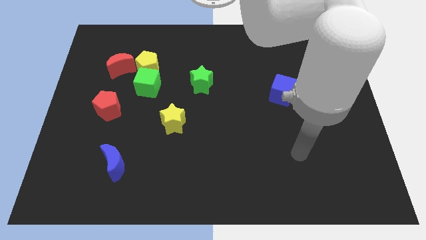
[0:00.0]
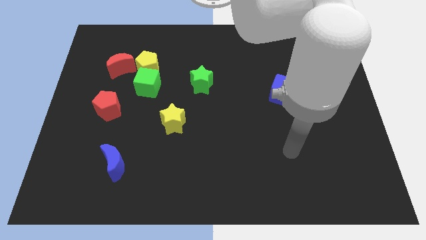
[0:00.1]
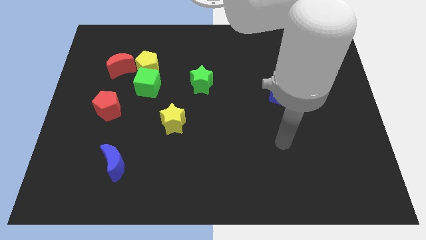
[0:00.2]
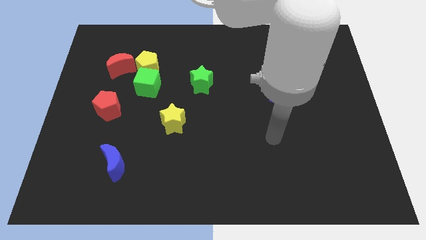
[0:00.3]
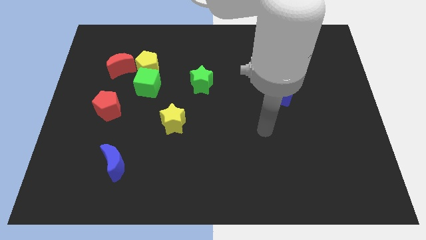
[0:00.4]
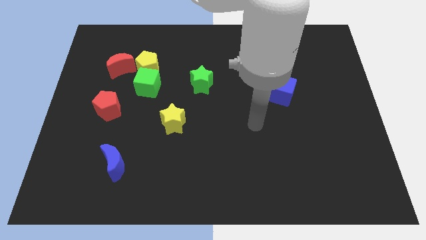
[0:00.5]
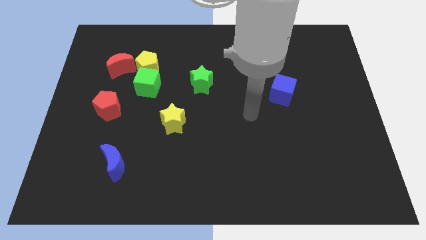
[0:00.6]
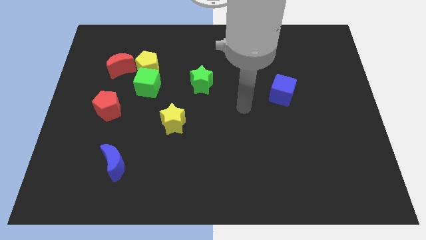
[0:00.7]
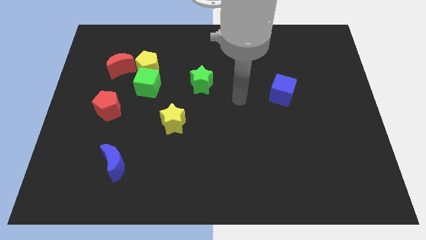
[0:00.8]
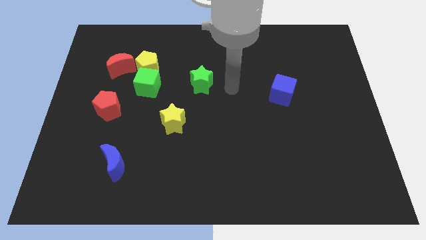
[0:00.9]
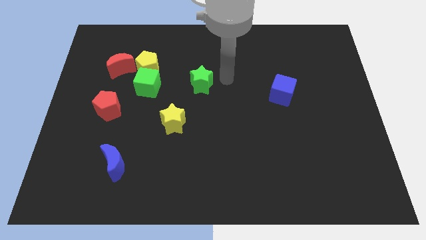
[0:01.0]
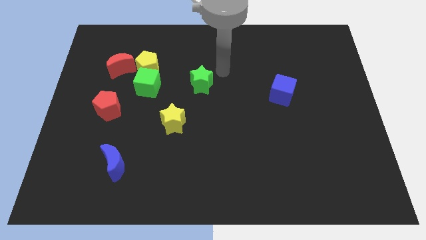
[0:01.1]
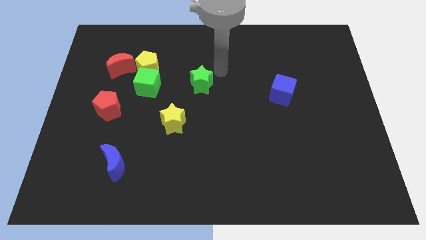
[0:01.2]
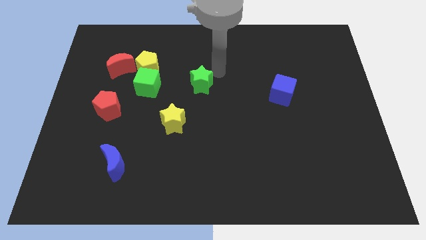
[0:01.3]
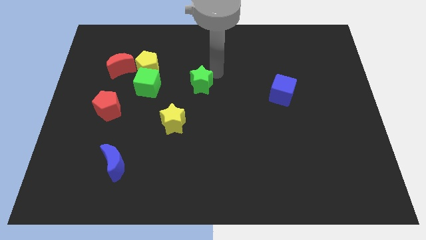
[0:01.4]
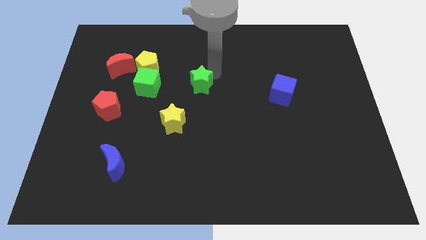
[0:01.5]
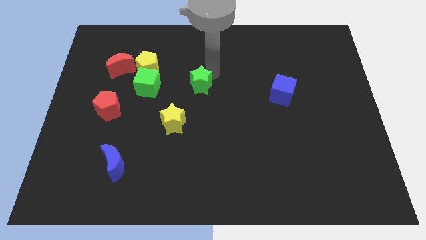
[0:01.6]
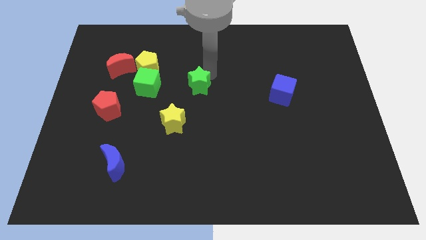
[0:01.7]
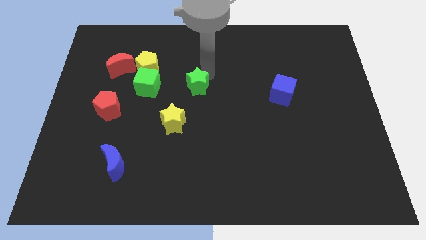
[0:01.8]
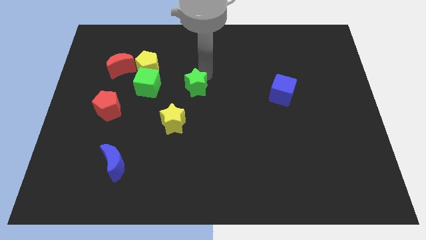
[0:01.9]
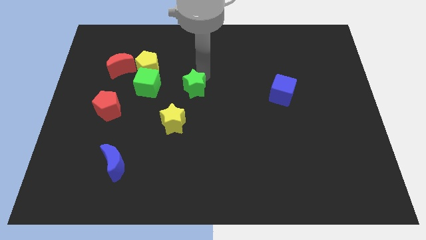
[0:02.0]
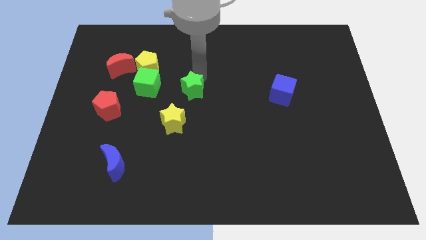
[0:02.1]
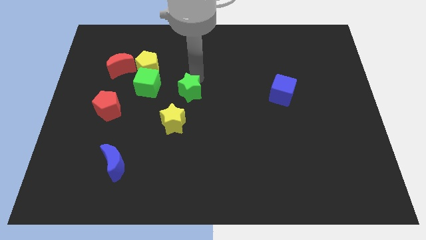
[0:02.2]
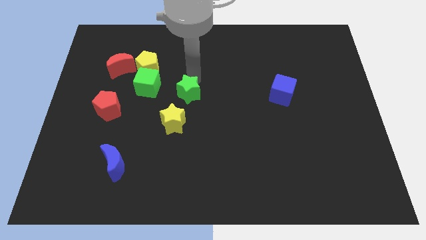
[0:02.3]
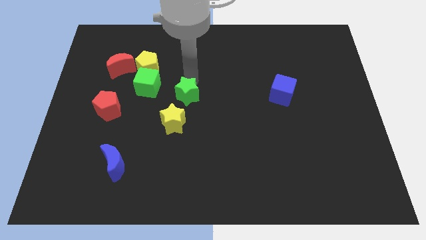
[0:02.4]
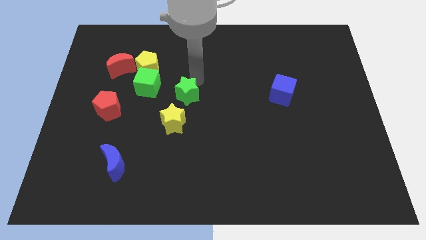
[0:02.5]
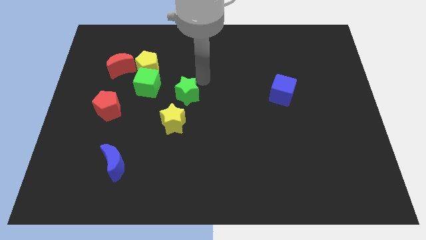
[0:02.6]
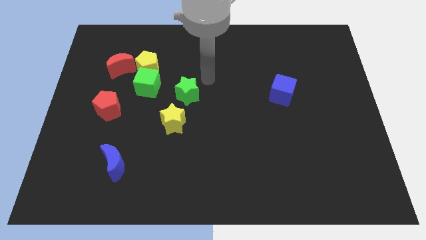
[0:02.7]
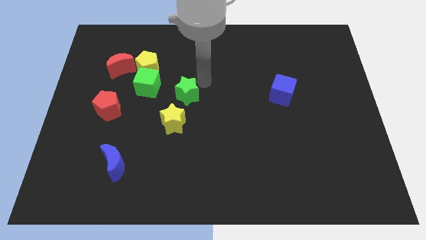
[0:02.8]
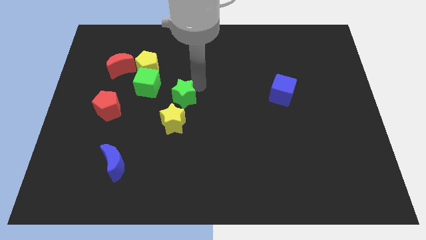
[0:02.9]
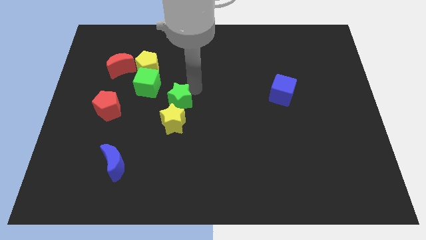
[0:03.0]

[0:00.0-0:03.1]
push the green star downwards and to the left diagonally a bit

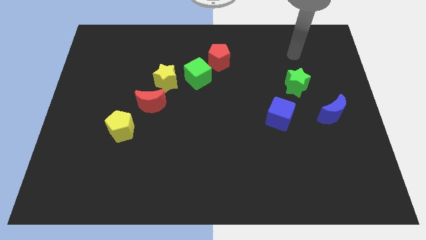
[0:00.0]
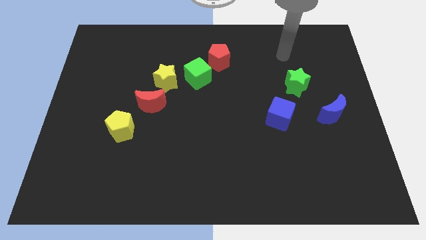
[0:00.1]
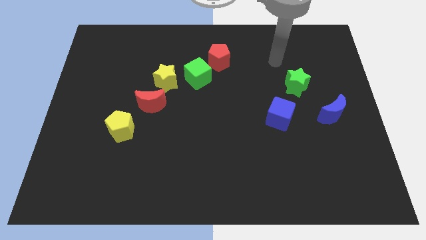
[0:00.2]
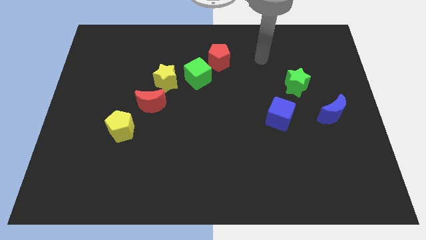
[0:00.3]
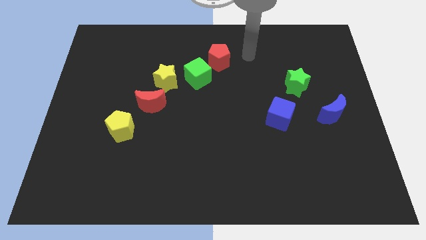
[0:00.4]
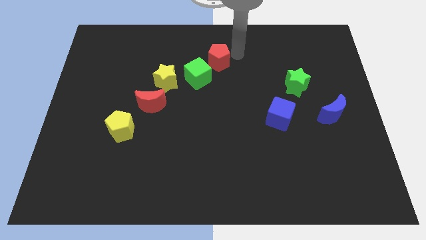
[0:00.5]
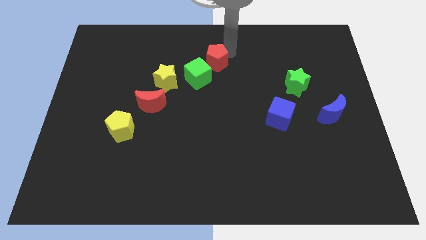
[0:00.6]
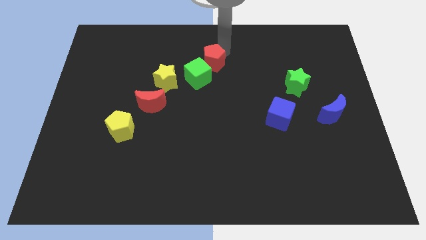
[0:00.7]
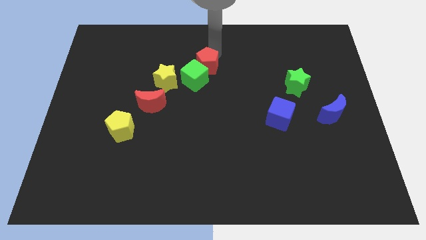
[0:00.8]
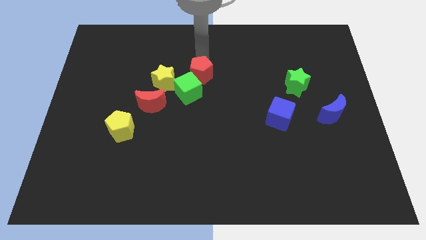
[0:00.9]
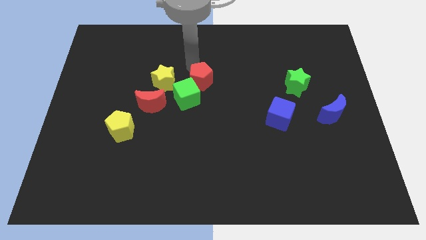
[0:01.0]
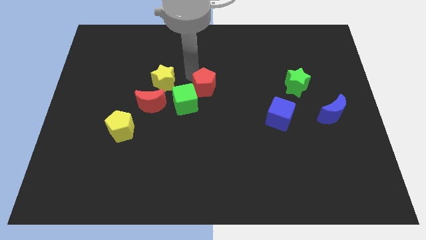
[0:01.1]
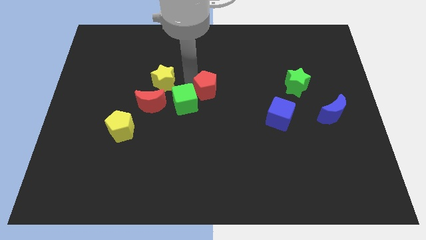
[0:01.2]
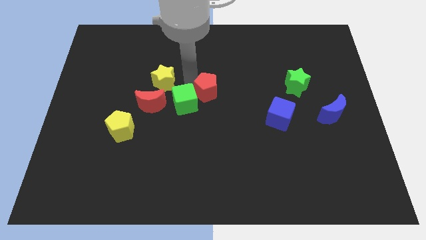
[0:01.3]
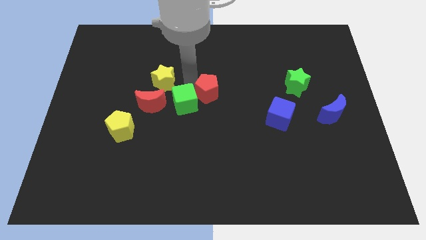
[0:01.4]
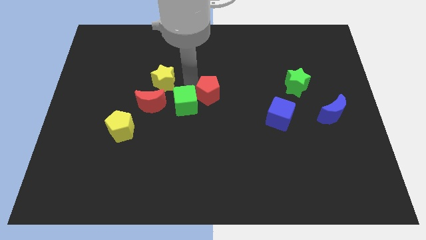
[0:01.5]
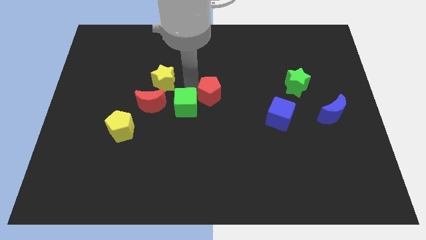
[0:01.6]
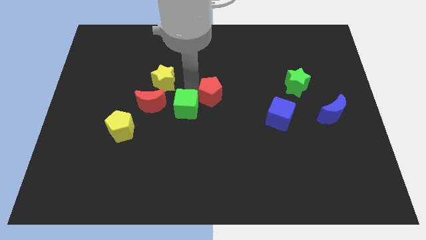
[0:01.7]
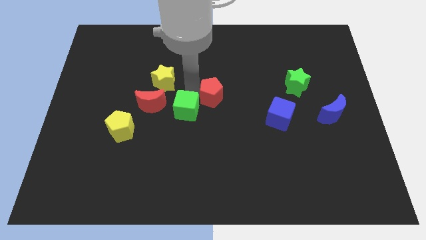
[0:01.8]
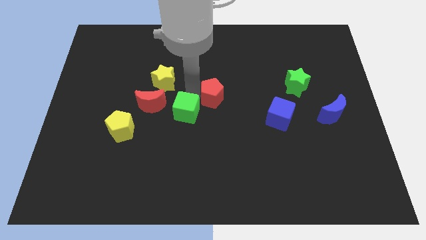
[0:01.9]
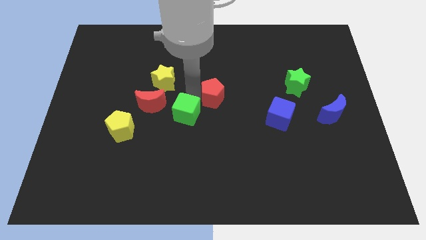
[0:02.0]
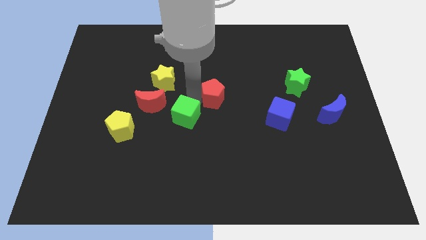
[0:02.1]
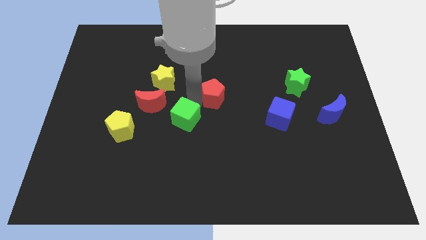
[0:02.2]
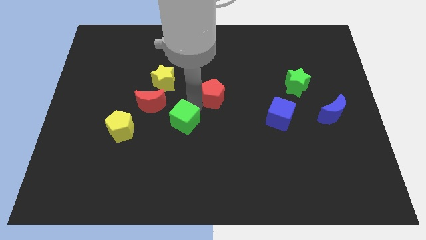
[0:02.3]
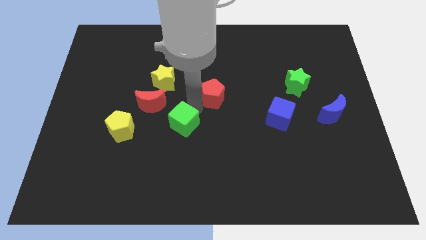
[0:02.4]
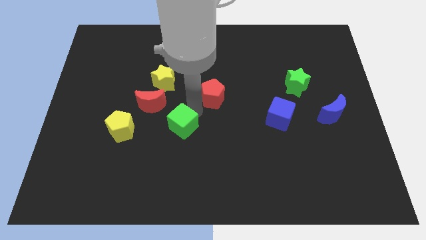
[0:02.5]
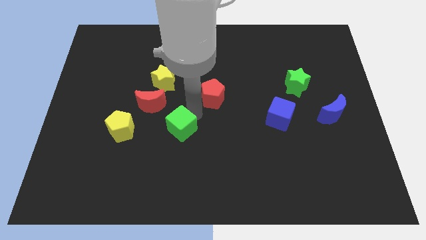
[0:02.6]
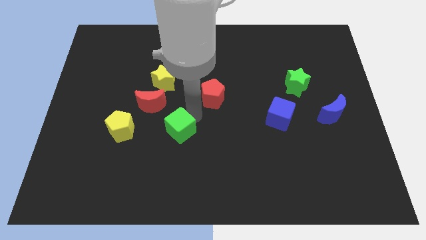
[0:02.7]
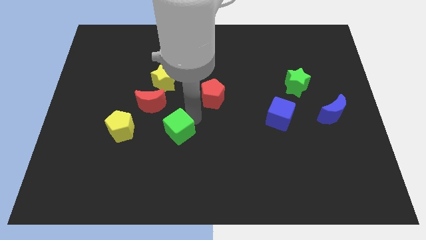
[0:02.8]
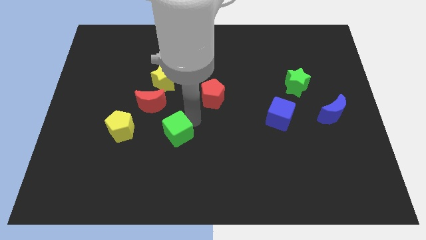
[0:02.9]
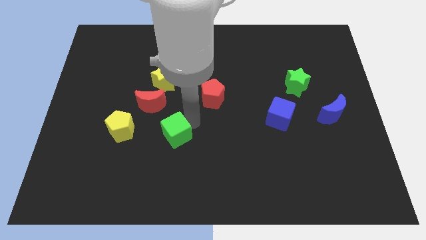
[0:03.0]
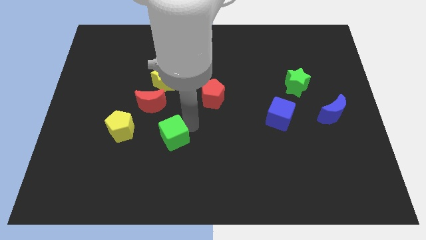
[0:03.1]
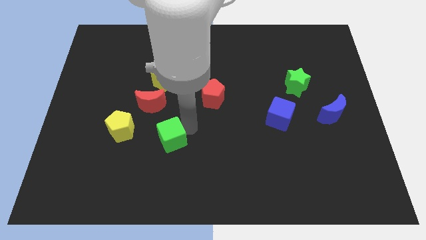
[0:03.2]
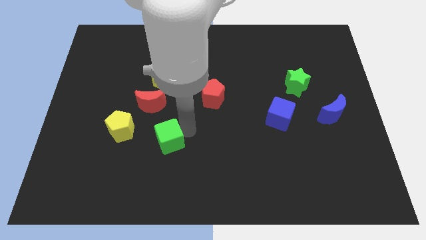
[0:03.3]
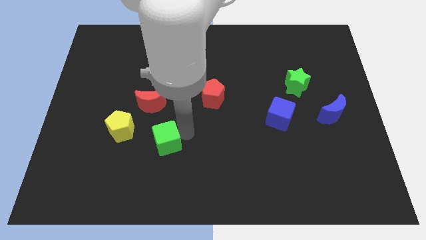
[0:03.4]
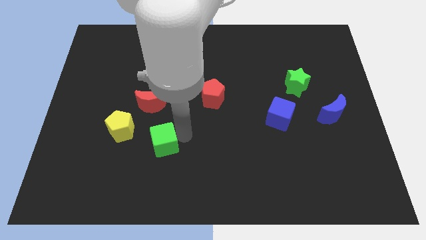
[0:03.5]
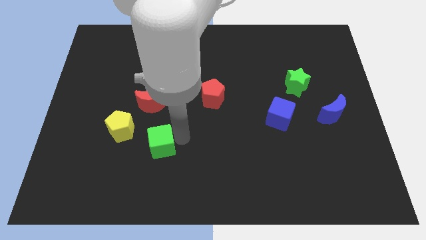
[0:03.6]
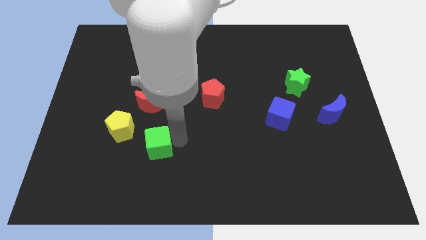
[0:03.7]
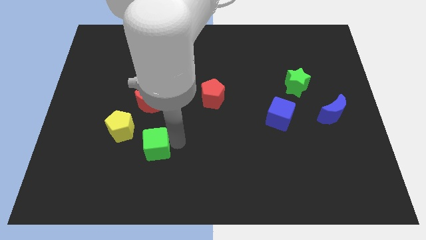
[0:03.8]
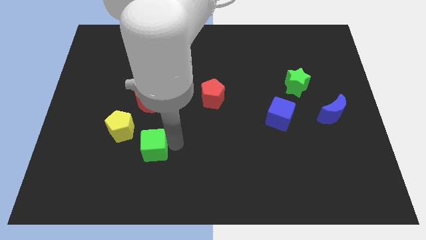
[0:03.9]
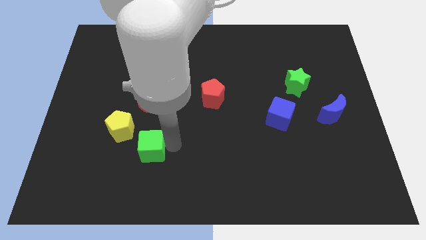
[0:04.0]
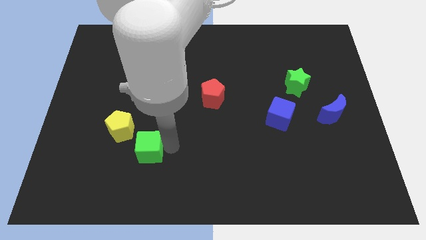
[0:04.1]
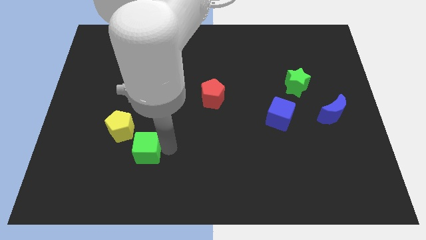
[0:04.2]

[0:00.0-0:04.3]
slide the green cube downwards and then to the left

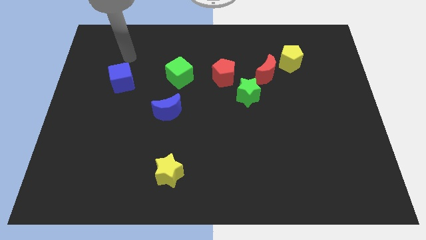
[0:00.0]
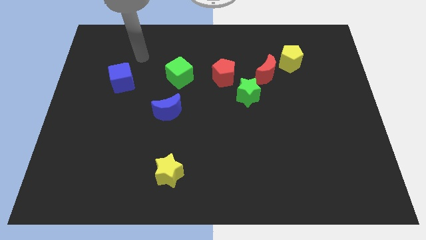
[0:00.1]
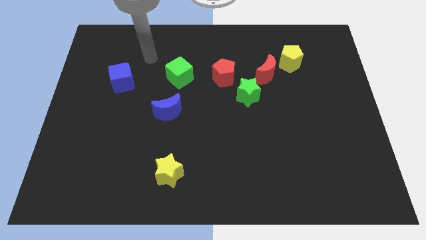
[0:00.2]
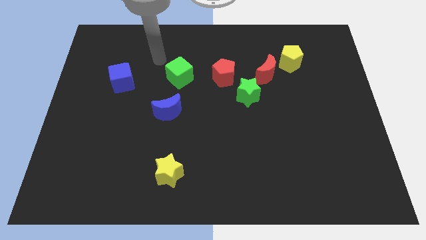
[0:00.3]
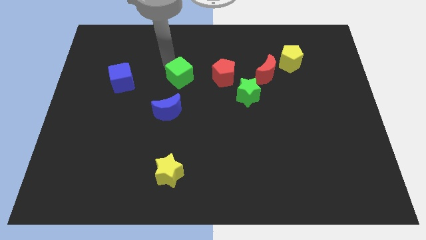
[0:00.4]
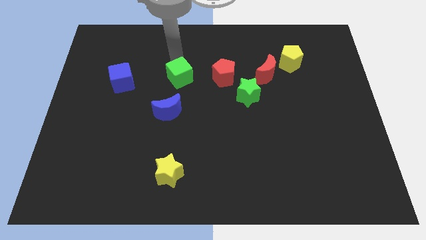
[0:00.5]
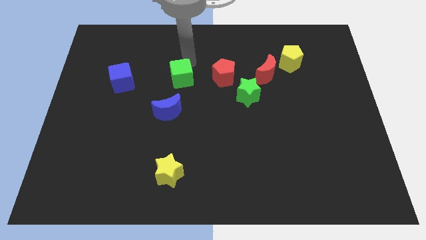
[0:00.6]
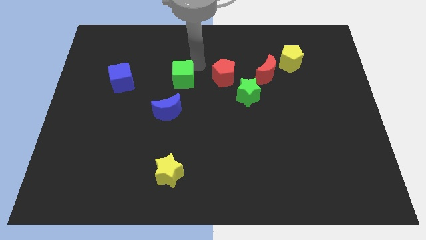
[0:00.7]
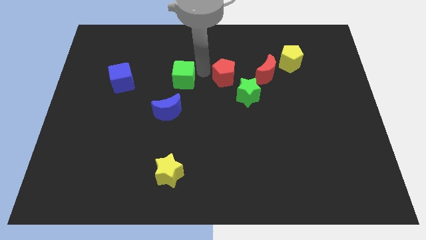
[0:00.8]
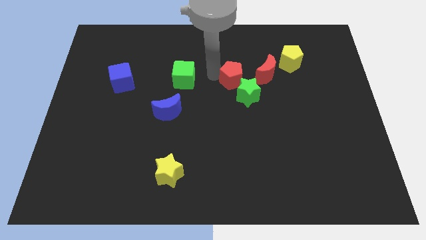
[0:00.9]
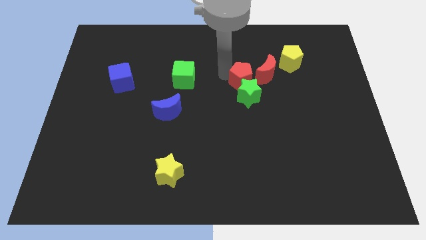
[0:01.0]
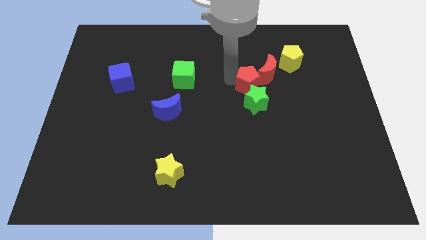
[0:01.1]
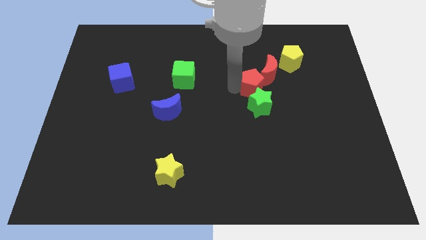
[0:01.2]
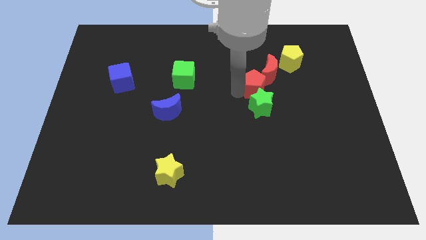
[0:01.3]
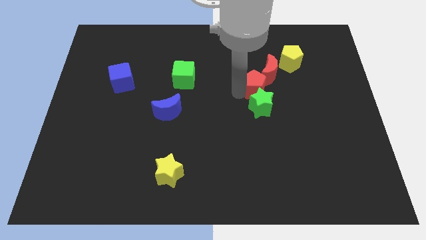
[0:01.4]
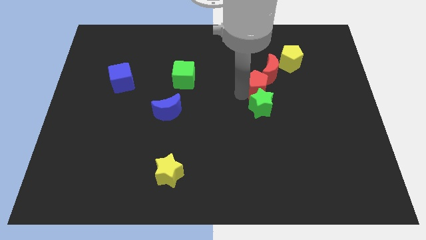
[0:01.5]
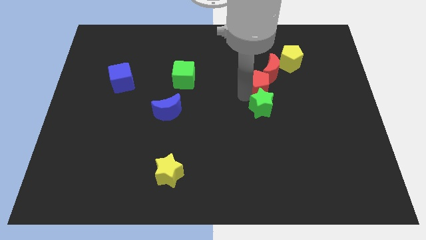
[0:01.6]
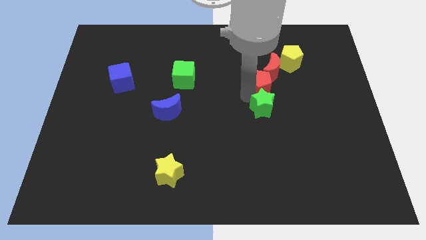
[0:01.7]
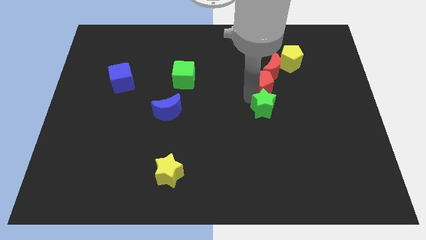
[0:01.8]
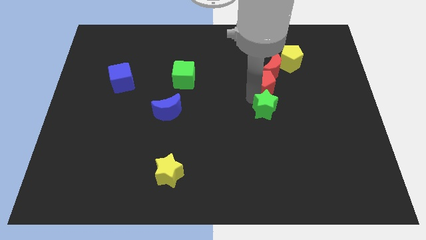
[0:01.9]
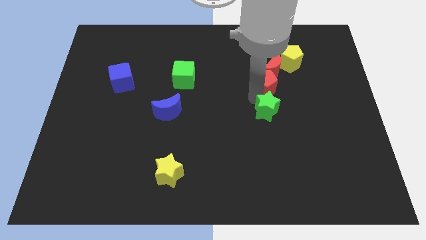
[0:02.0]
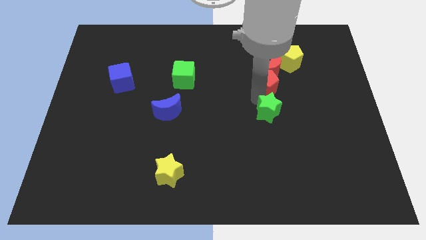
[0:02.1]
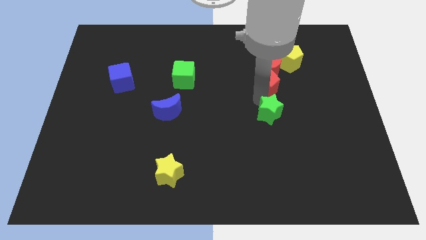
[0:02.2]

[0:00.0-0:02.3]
move the green star diagonally downwards and right a little
